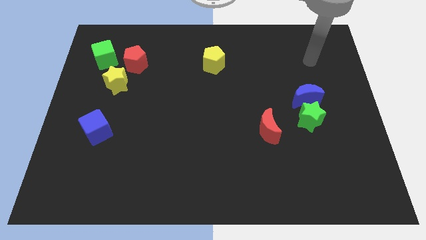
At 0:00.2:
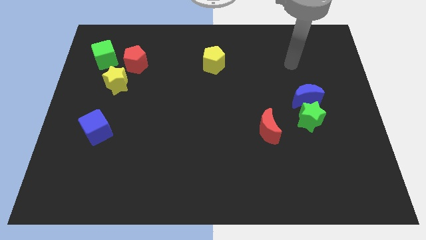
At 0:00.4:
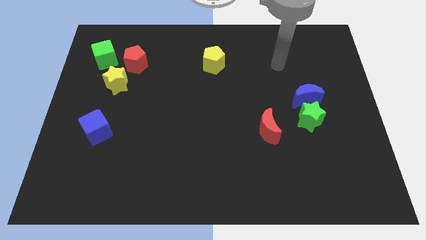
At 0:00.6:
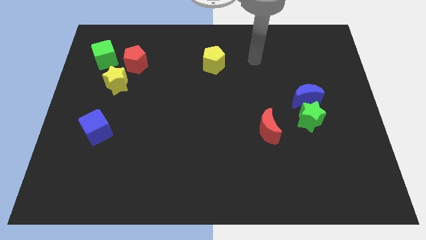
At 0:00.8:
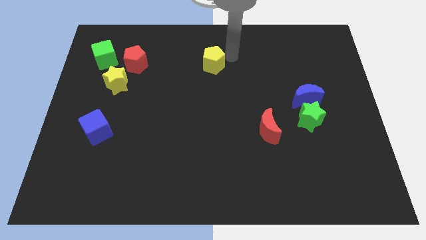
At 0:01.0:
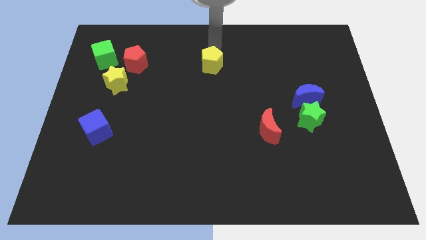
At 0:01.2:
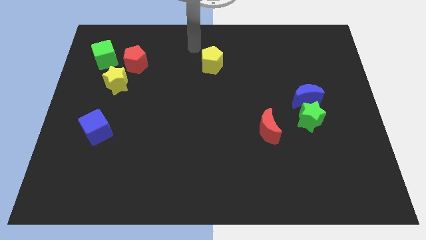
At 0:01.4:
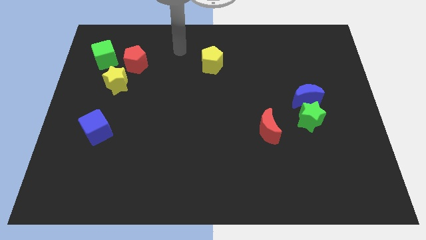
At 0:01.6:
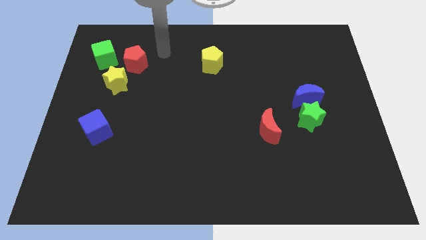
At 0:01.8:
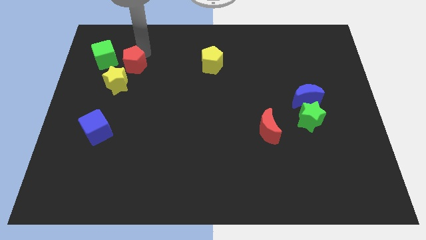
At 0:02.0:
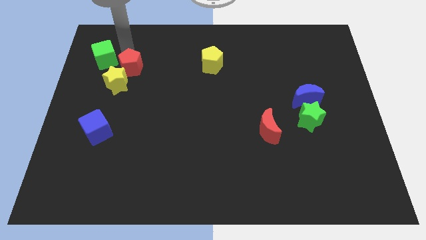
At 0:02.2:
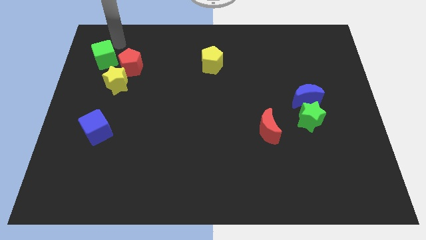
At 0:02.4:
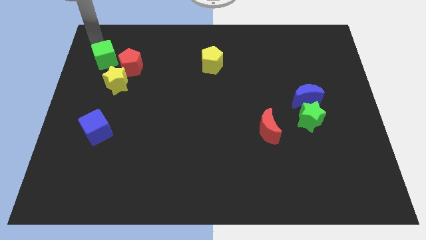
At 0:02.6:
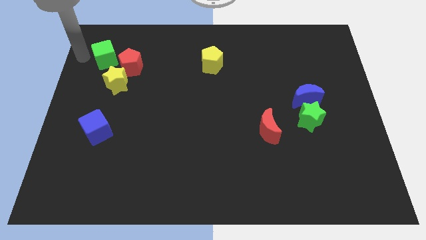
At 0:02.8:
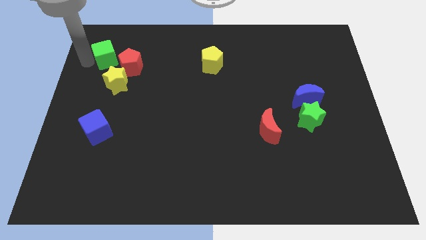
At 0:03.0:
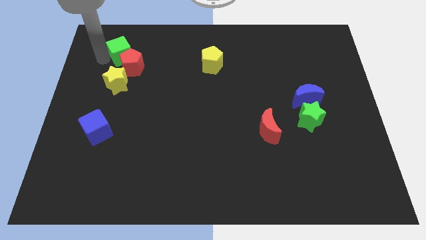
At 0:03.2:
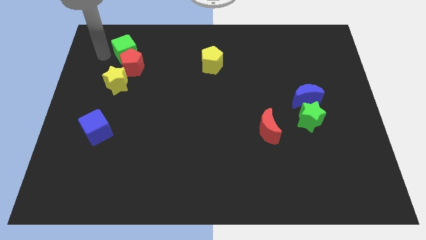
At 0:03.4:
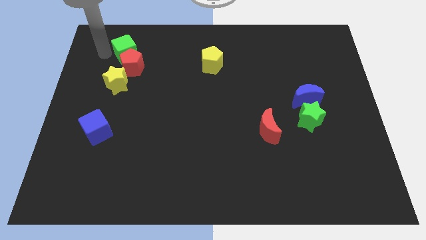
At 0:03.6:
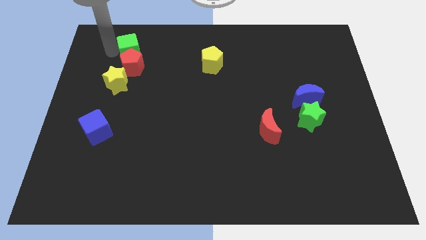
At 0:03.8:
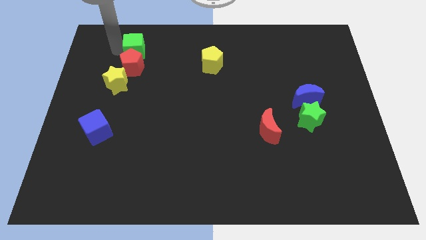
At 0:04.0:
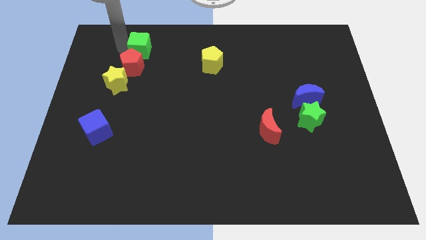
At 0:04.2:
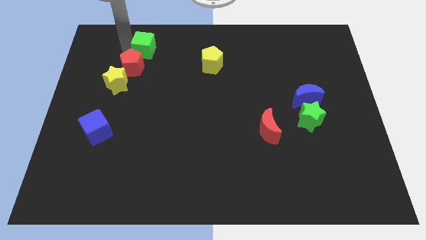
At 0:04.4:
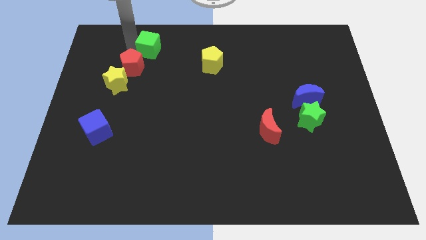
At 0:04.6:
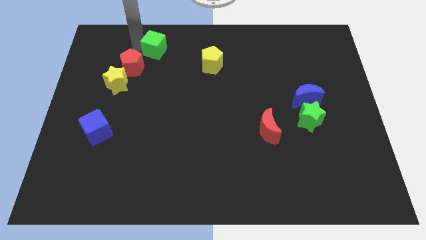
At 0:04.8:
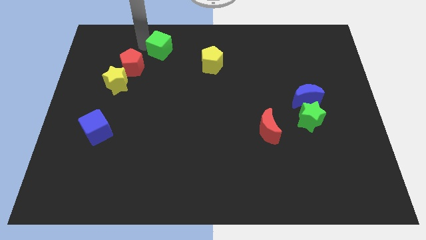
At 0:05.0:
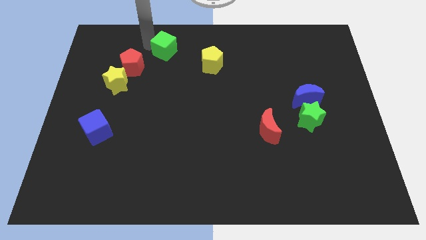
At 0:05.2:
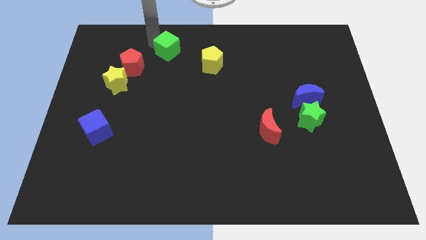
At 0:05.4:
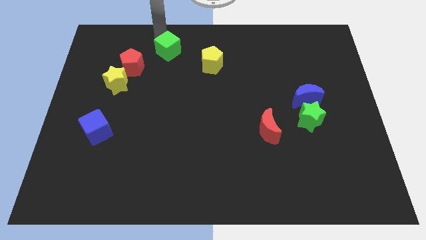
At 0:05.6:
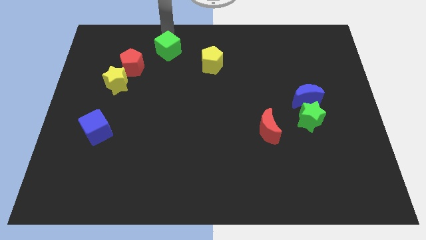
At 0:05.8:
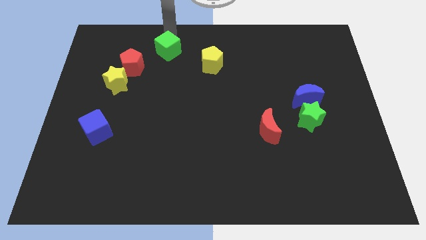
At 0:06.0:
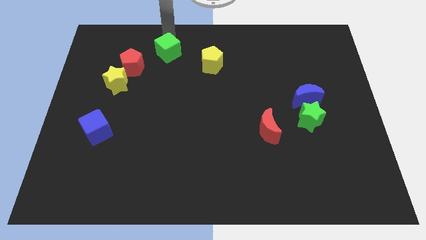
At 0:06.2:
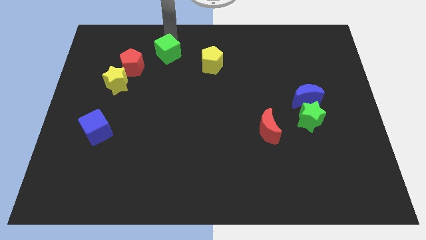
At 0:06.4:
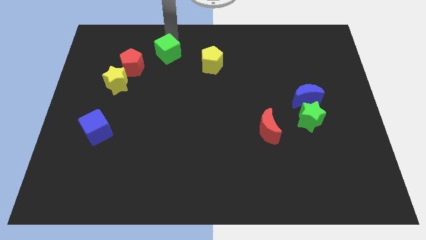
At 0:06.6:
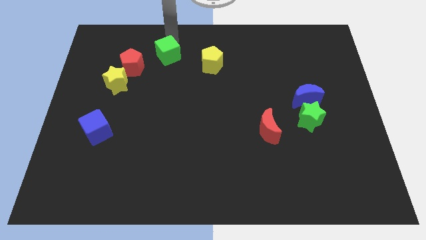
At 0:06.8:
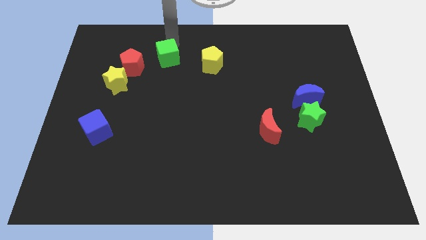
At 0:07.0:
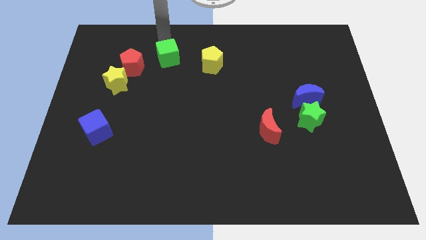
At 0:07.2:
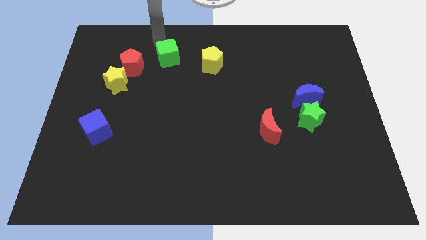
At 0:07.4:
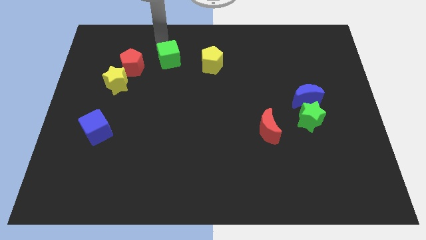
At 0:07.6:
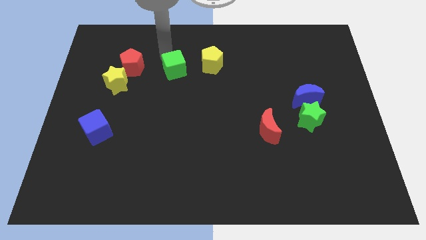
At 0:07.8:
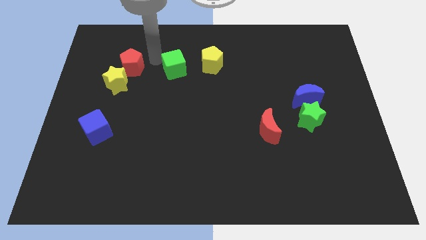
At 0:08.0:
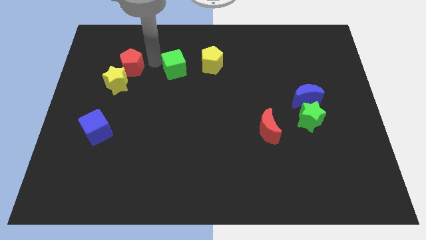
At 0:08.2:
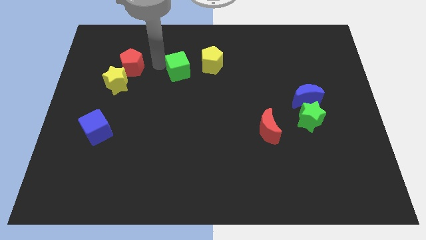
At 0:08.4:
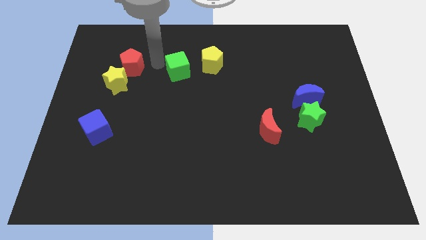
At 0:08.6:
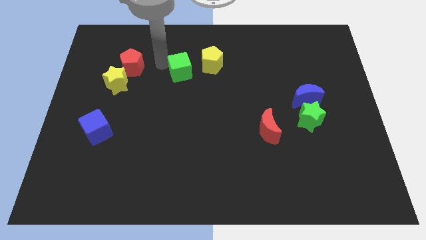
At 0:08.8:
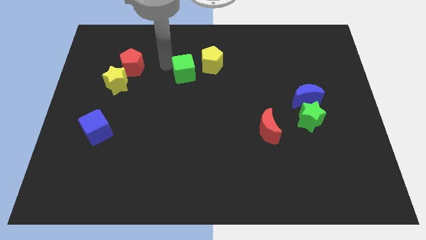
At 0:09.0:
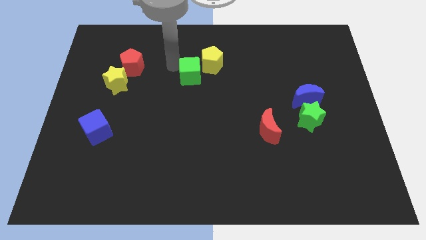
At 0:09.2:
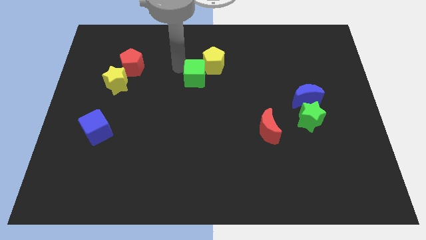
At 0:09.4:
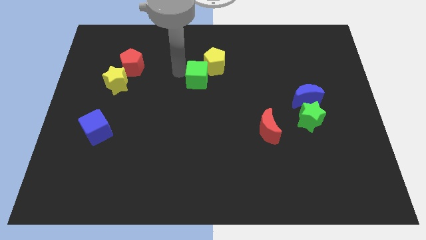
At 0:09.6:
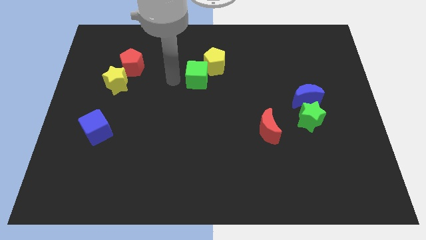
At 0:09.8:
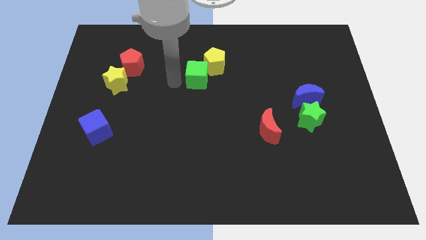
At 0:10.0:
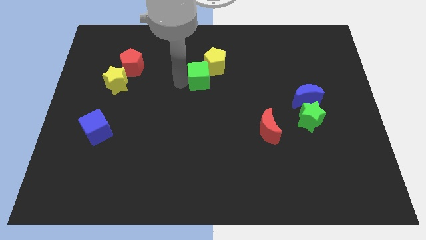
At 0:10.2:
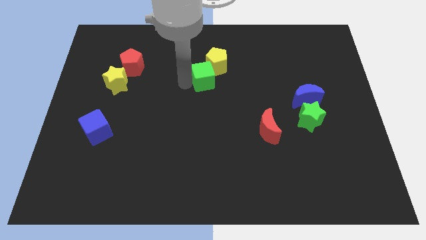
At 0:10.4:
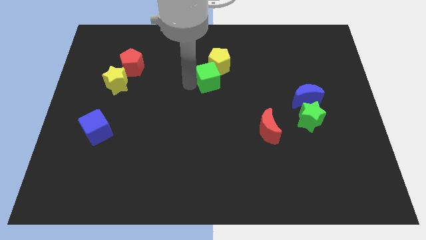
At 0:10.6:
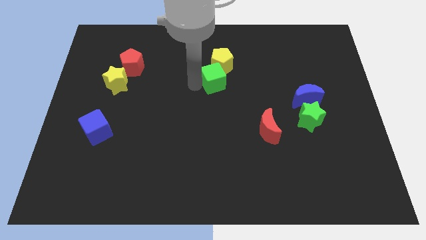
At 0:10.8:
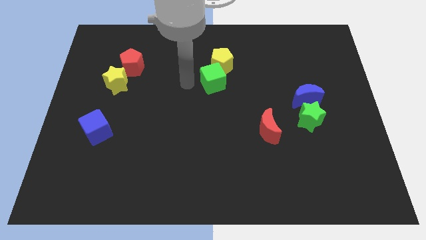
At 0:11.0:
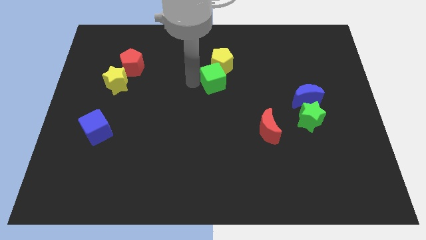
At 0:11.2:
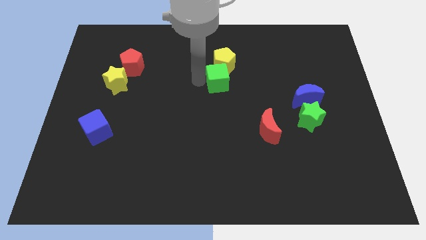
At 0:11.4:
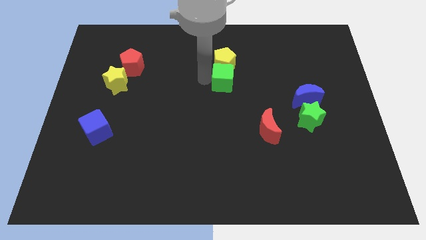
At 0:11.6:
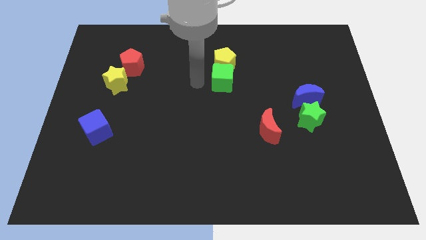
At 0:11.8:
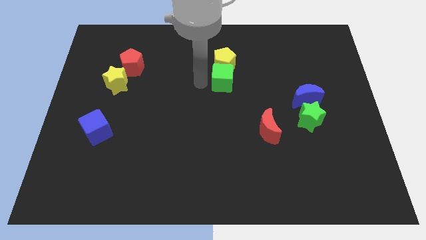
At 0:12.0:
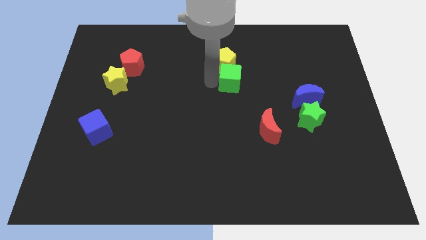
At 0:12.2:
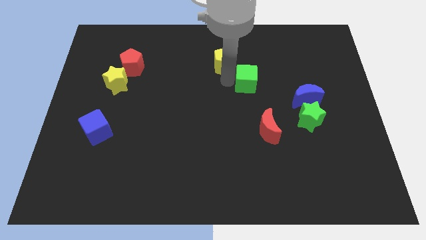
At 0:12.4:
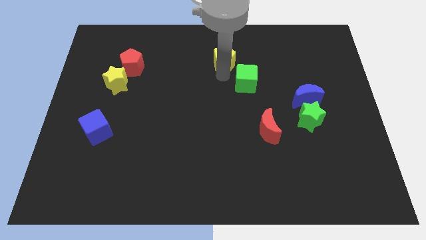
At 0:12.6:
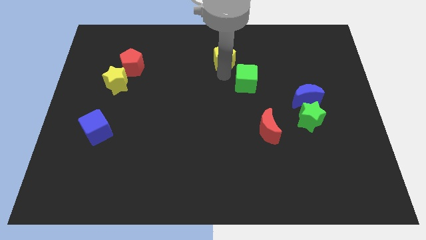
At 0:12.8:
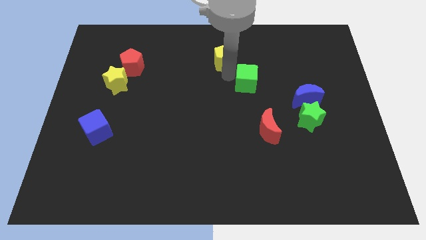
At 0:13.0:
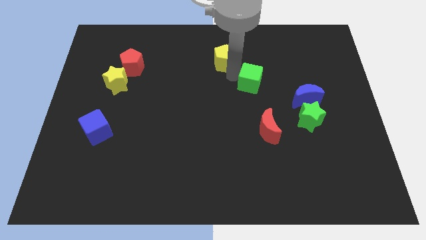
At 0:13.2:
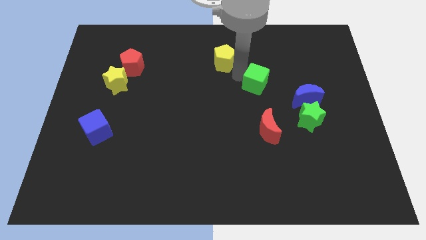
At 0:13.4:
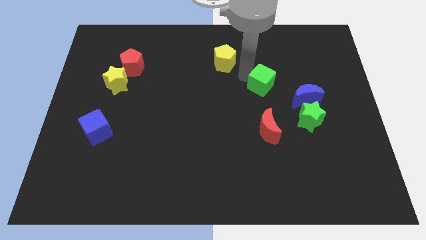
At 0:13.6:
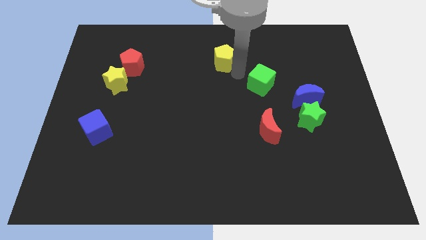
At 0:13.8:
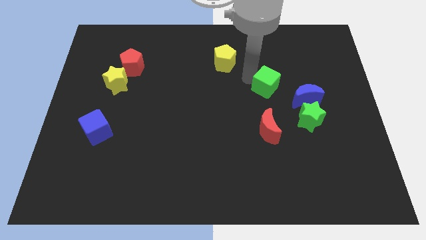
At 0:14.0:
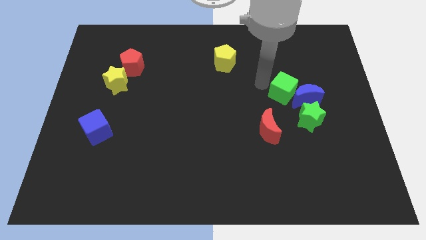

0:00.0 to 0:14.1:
move the green cube close to the blue moon

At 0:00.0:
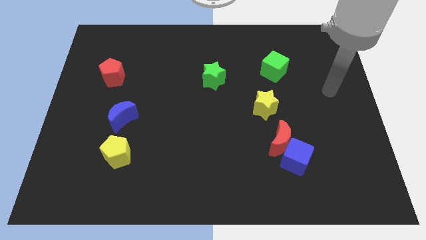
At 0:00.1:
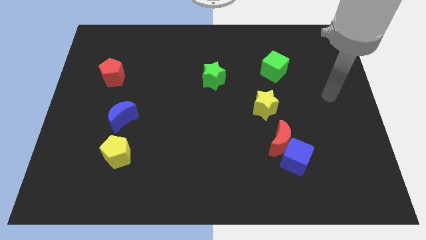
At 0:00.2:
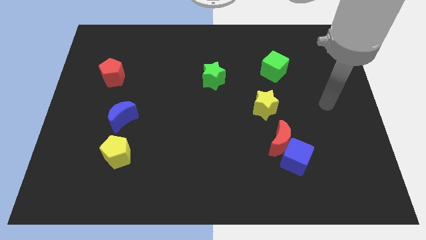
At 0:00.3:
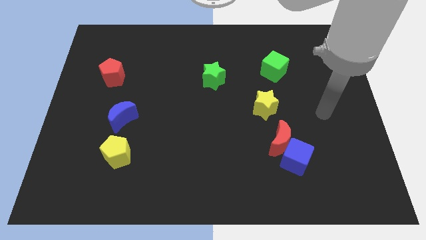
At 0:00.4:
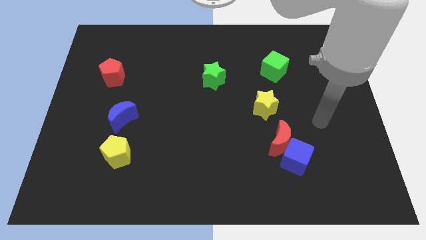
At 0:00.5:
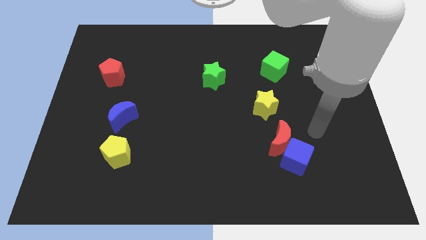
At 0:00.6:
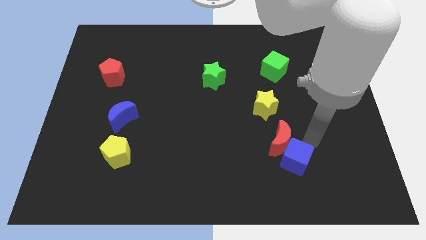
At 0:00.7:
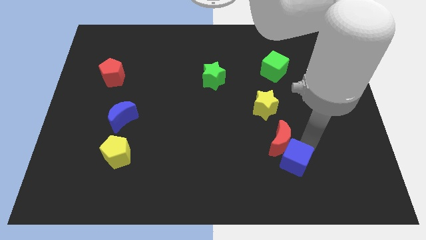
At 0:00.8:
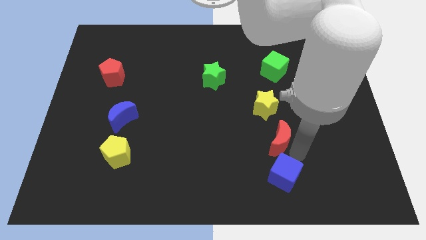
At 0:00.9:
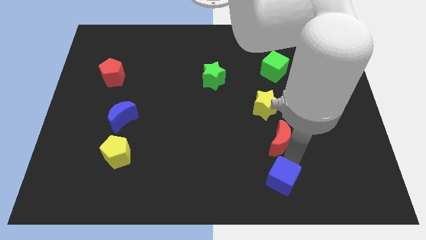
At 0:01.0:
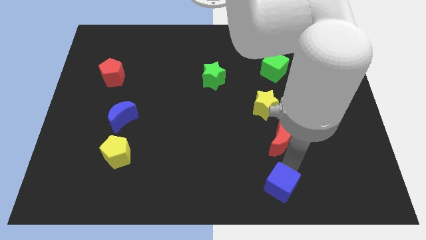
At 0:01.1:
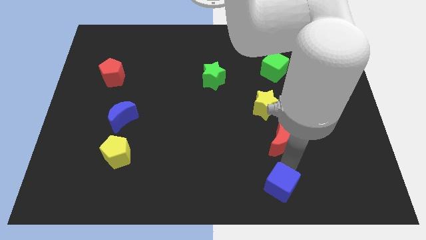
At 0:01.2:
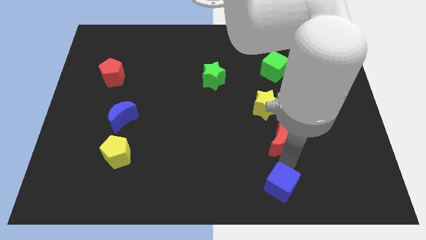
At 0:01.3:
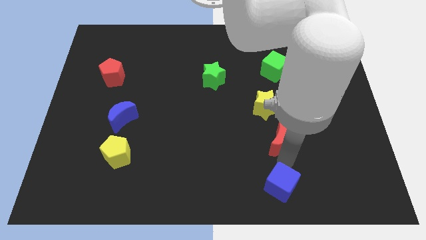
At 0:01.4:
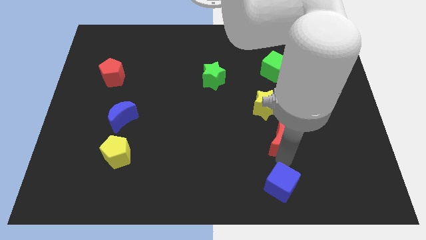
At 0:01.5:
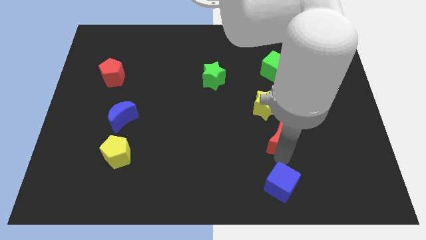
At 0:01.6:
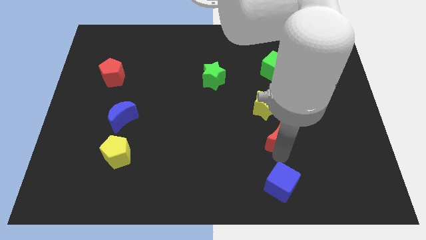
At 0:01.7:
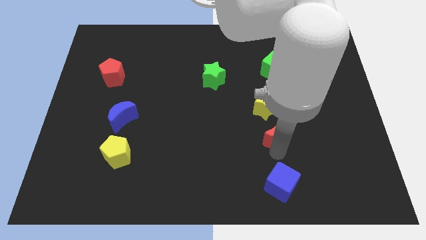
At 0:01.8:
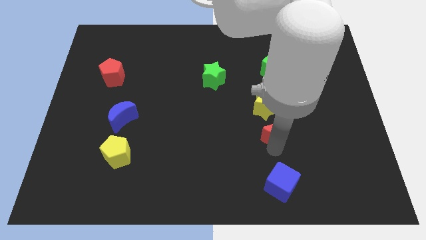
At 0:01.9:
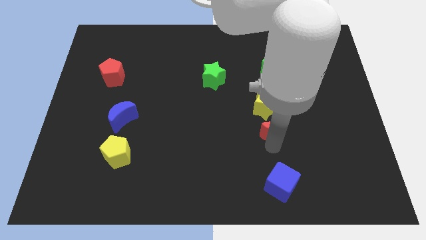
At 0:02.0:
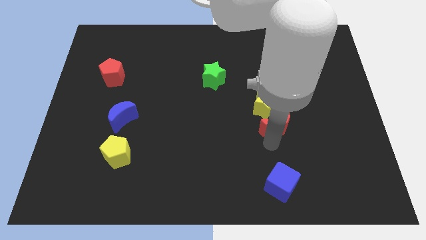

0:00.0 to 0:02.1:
put the red moon next to the yellow star
